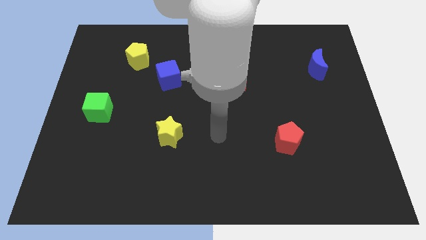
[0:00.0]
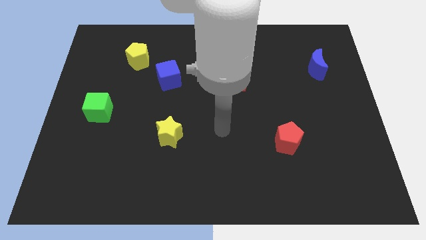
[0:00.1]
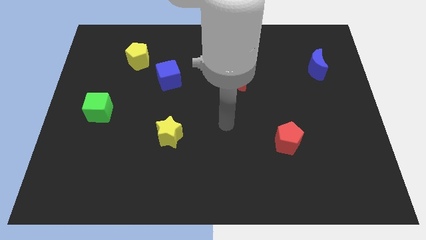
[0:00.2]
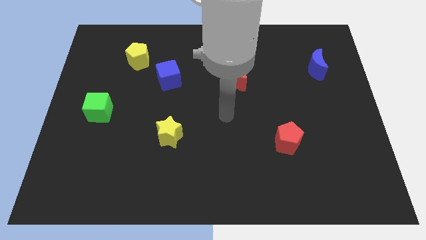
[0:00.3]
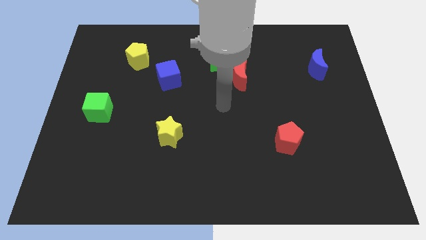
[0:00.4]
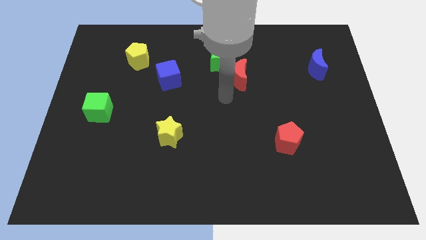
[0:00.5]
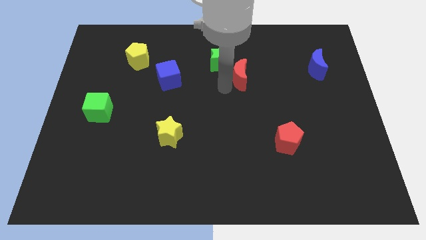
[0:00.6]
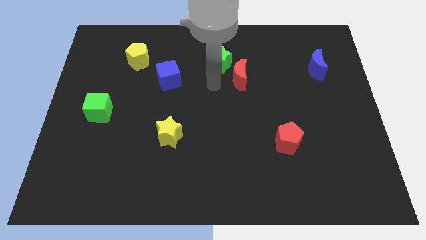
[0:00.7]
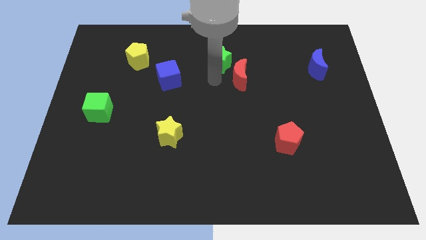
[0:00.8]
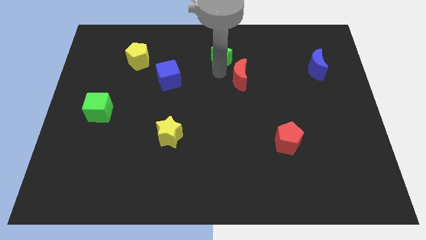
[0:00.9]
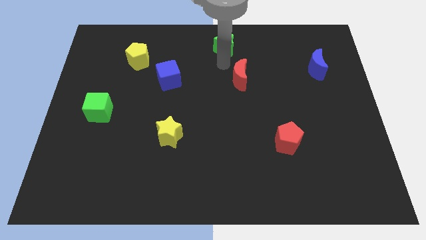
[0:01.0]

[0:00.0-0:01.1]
separate the red moon from the green star

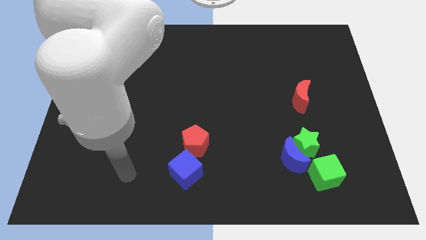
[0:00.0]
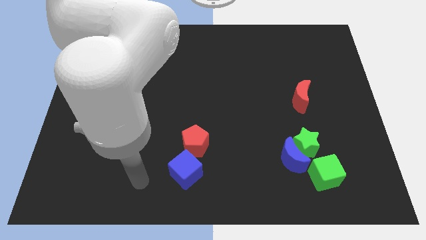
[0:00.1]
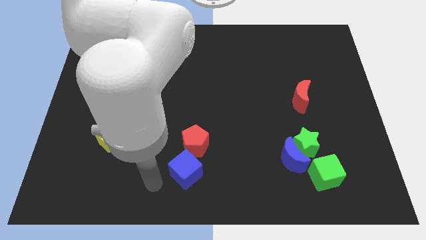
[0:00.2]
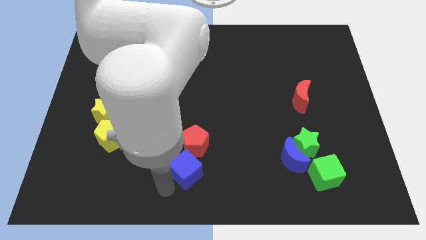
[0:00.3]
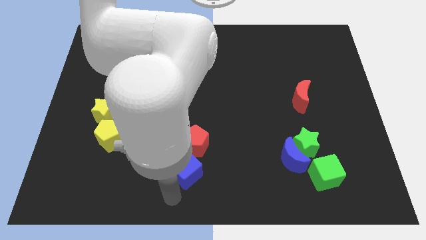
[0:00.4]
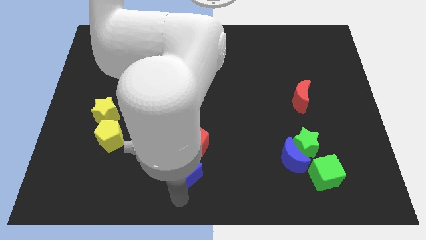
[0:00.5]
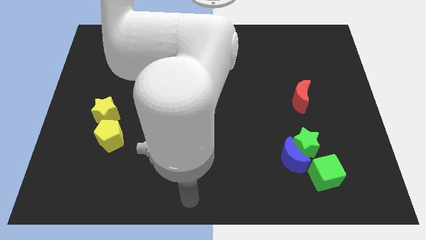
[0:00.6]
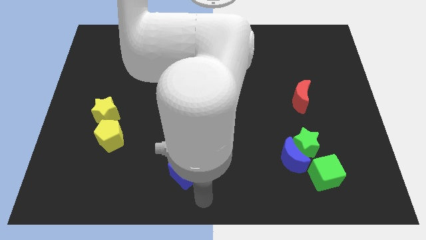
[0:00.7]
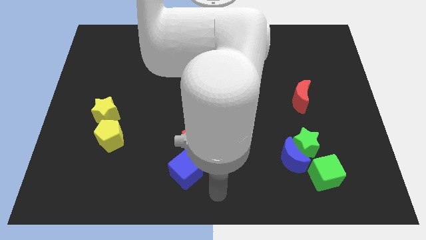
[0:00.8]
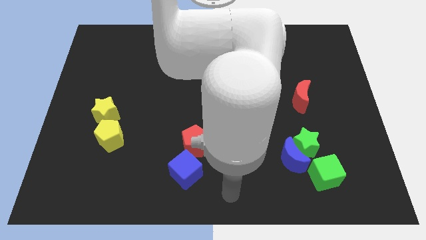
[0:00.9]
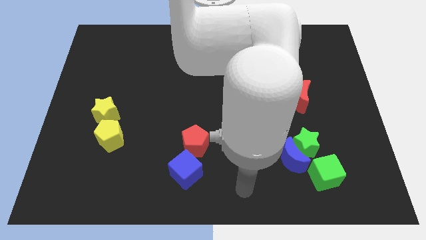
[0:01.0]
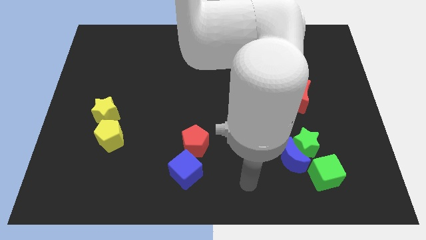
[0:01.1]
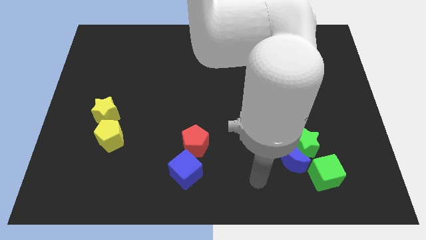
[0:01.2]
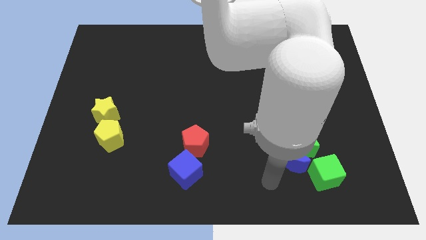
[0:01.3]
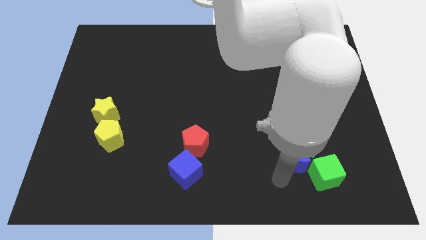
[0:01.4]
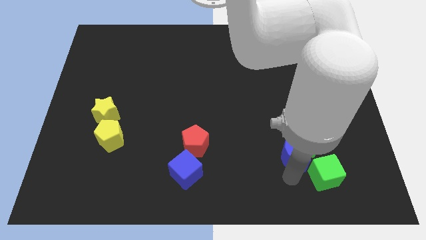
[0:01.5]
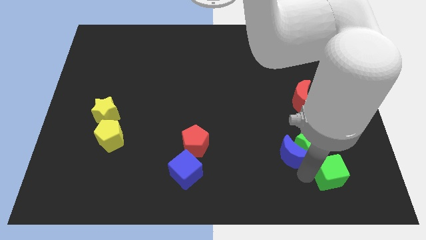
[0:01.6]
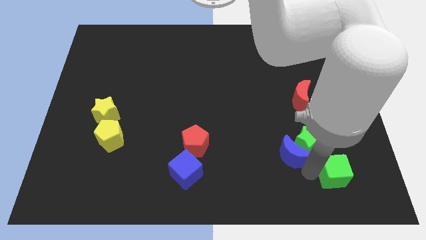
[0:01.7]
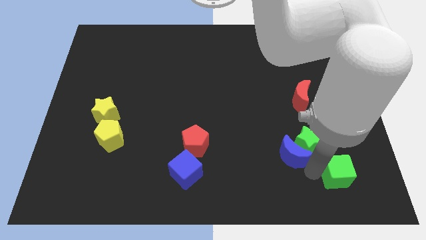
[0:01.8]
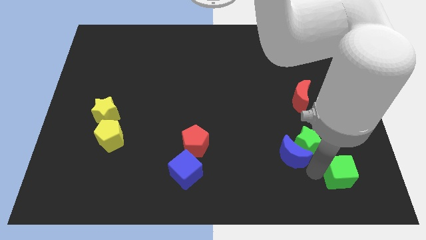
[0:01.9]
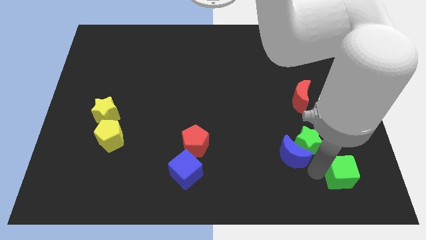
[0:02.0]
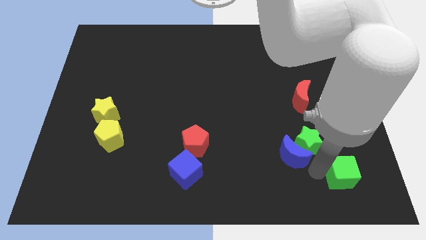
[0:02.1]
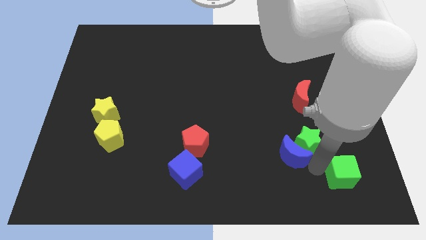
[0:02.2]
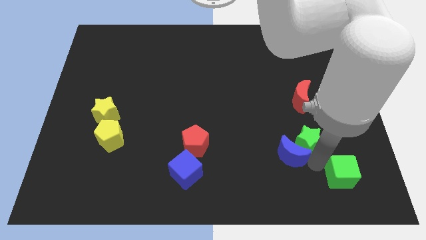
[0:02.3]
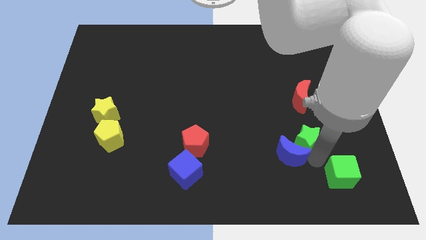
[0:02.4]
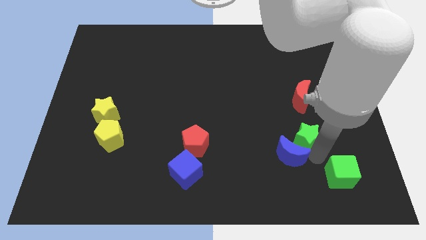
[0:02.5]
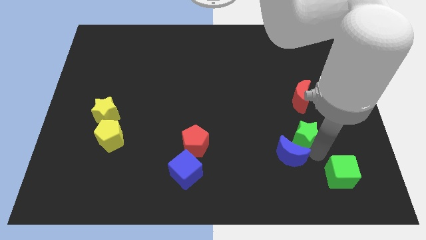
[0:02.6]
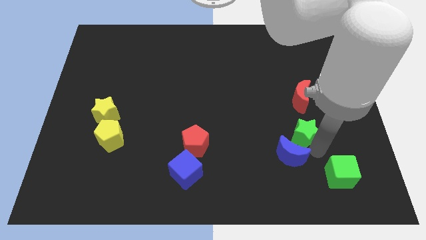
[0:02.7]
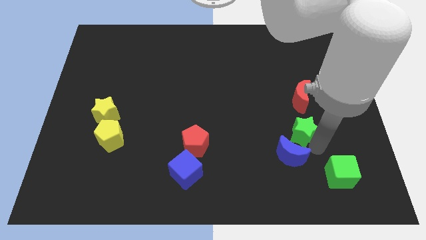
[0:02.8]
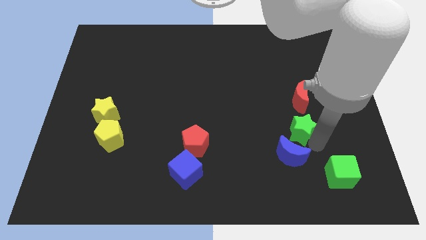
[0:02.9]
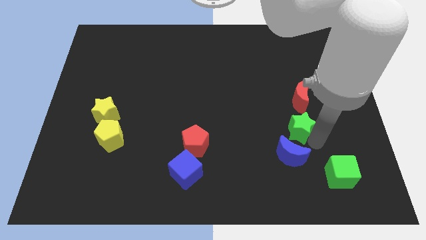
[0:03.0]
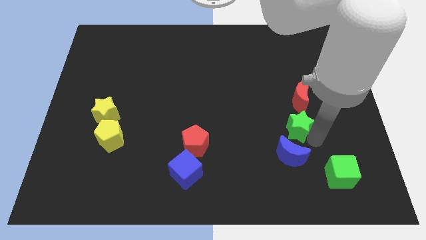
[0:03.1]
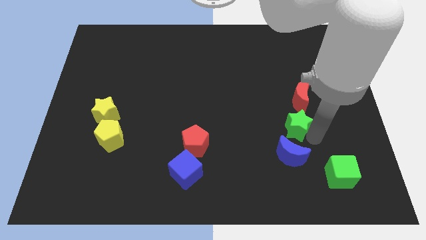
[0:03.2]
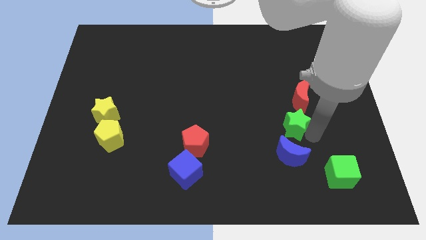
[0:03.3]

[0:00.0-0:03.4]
separate the green star from the blue moon and green cube

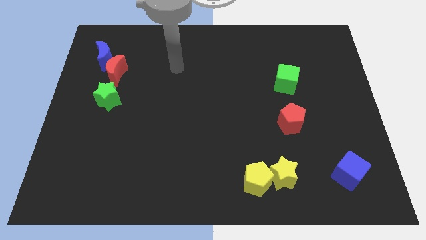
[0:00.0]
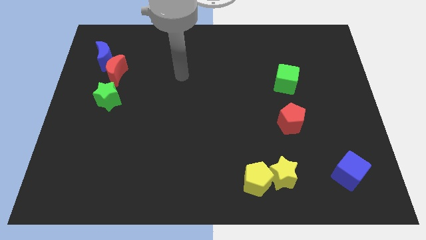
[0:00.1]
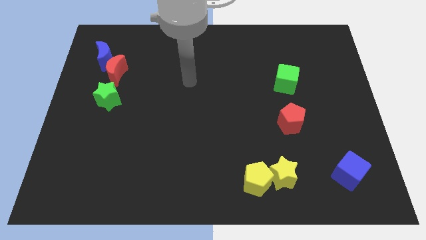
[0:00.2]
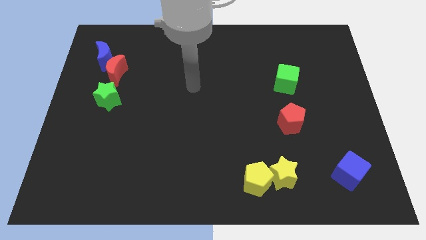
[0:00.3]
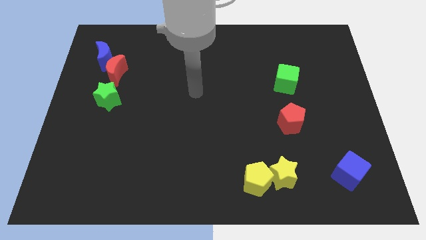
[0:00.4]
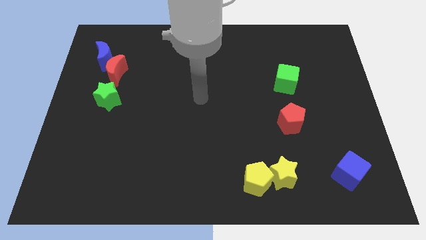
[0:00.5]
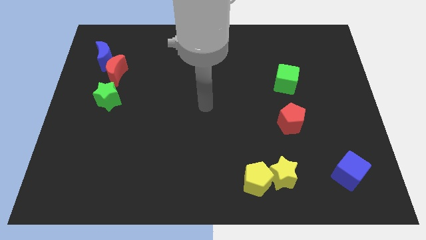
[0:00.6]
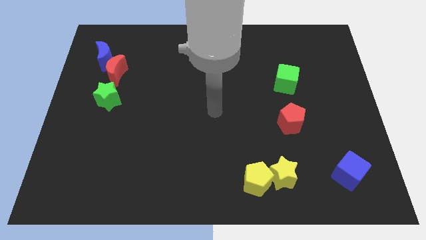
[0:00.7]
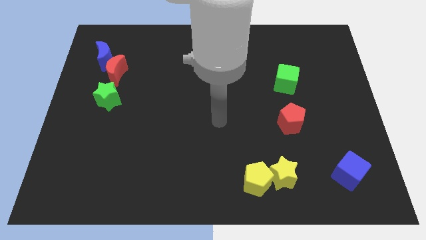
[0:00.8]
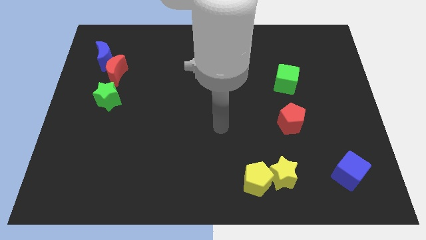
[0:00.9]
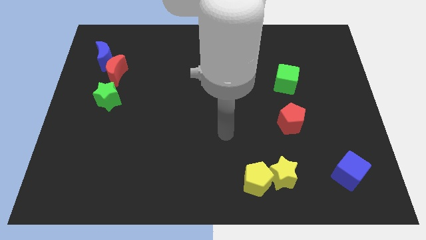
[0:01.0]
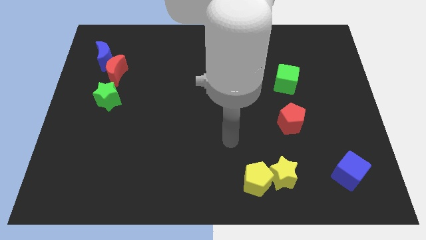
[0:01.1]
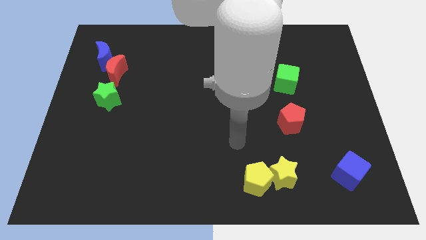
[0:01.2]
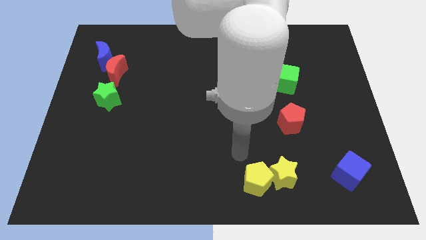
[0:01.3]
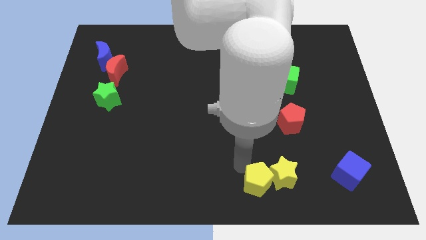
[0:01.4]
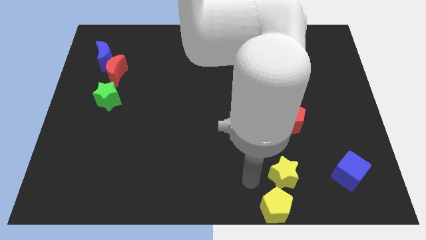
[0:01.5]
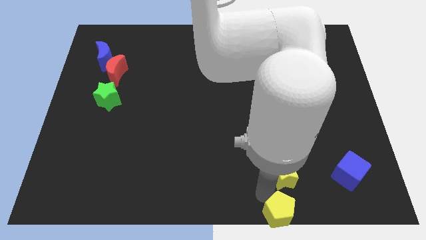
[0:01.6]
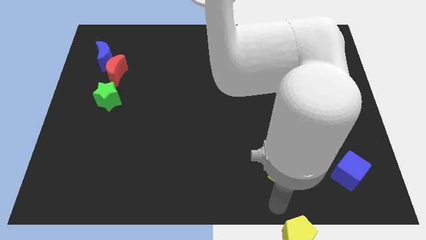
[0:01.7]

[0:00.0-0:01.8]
move the yellow star away from the yellow pentagon

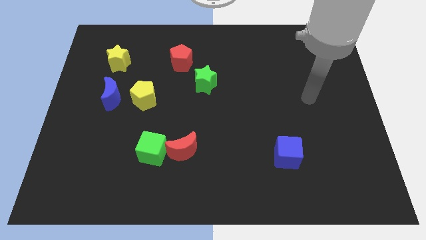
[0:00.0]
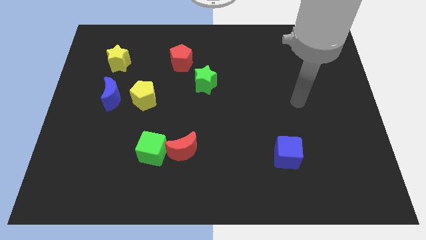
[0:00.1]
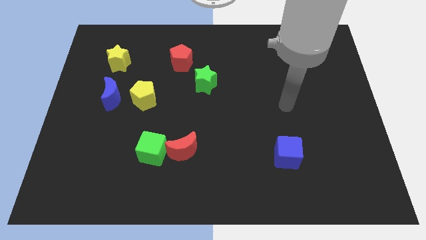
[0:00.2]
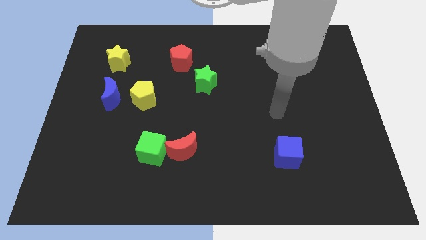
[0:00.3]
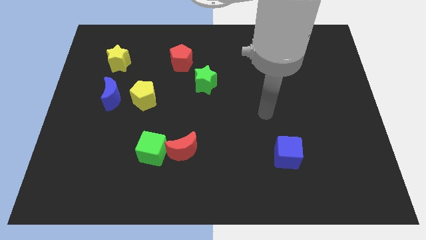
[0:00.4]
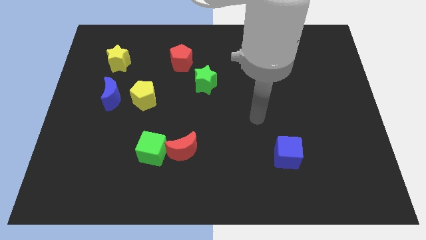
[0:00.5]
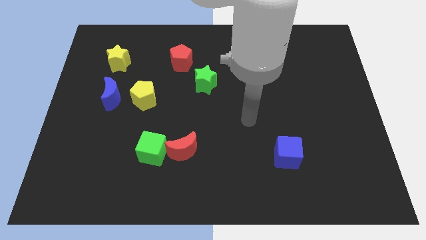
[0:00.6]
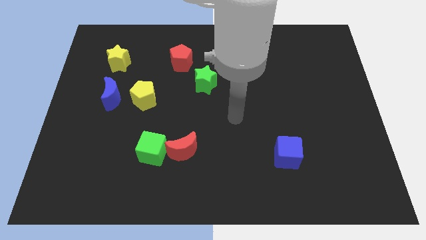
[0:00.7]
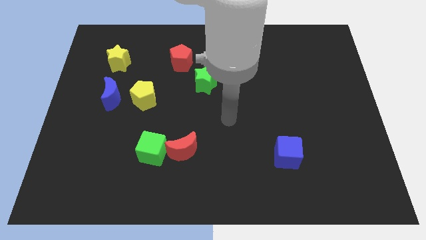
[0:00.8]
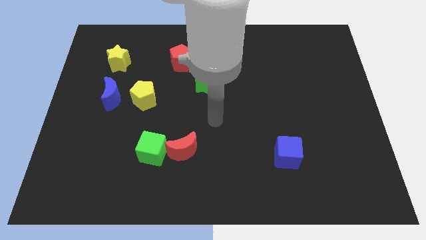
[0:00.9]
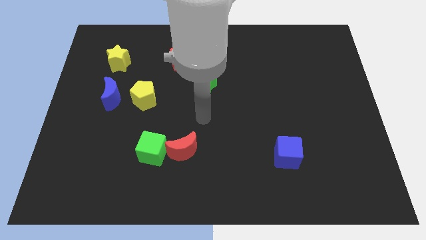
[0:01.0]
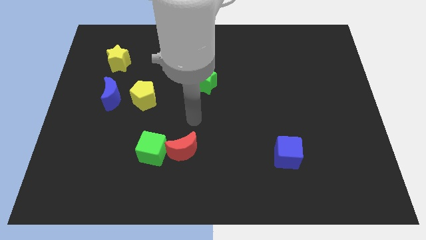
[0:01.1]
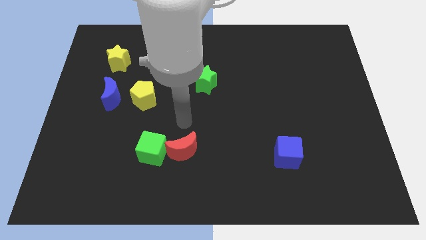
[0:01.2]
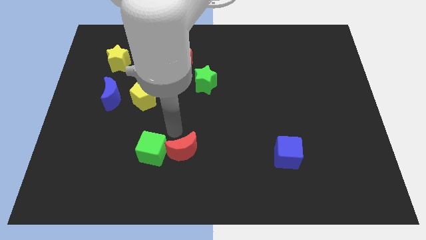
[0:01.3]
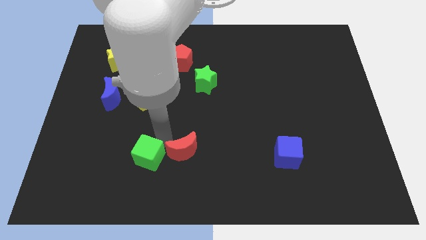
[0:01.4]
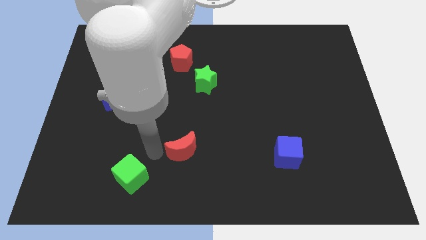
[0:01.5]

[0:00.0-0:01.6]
separate the red moon from the green cube

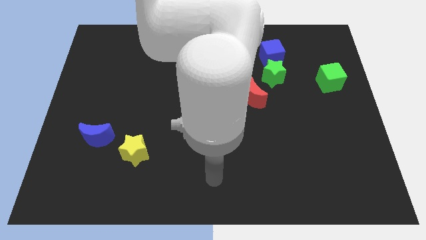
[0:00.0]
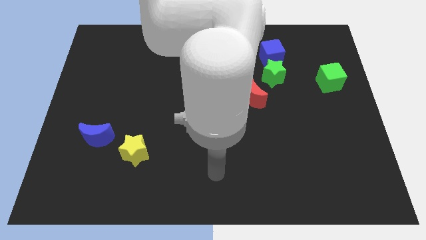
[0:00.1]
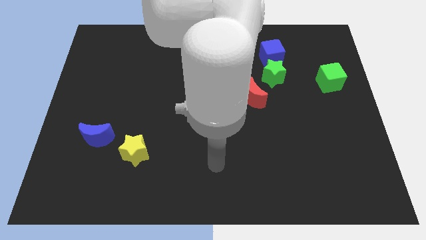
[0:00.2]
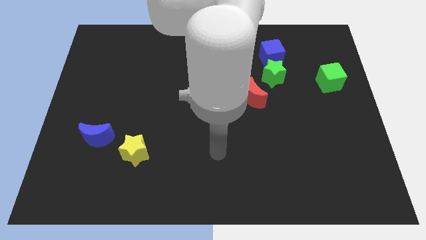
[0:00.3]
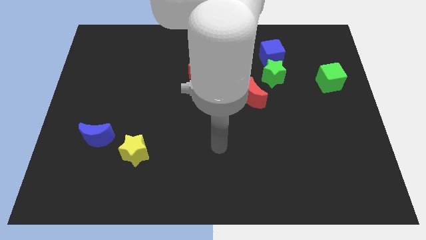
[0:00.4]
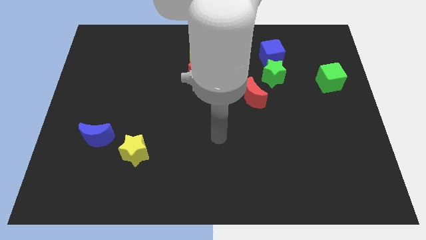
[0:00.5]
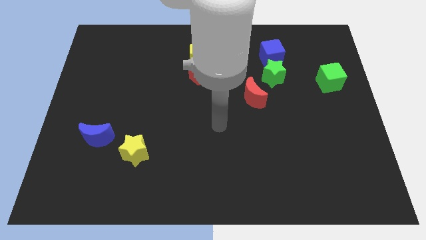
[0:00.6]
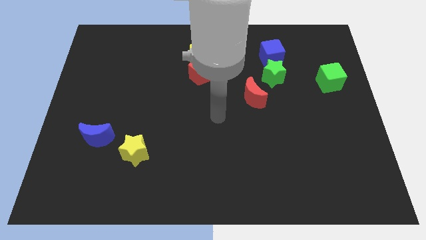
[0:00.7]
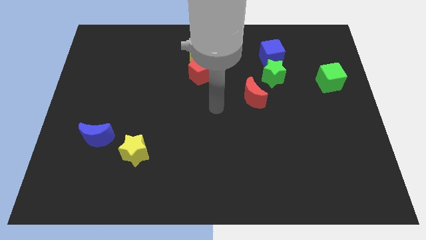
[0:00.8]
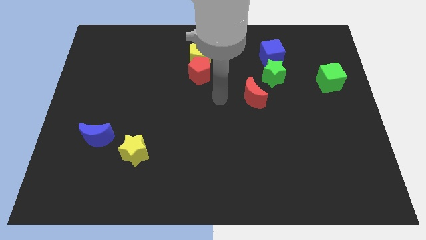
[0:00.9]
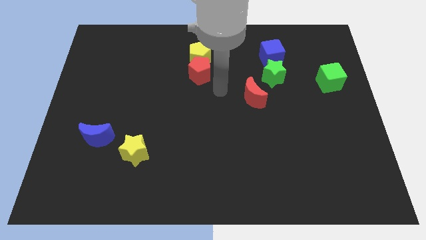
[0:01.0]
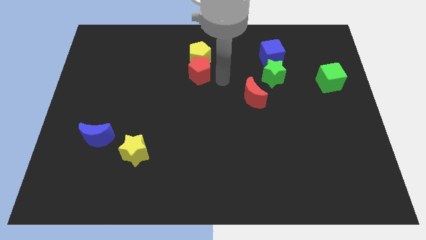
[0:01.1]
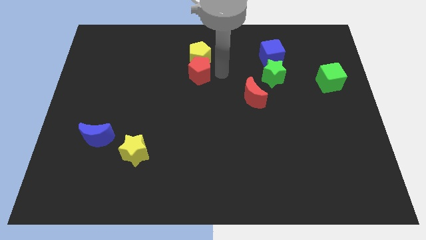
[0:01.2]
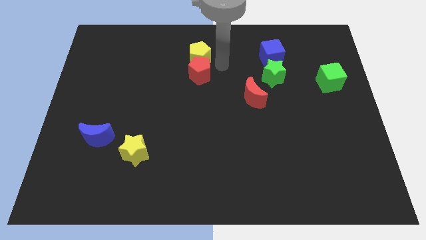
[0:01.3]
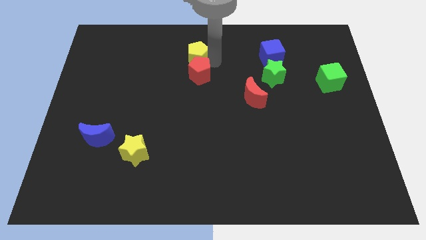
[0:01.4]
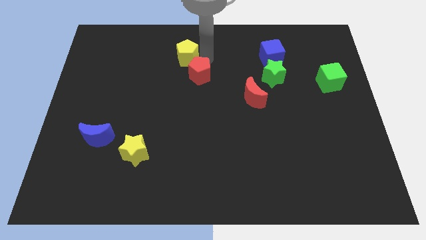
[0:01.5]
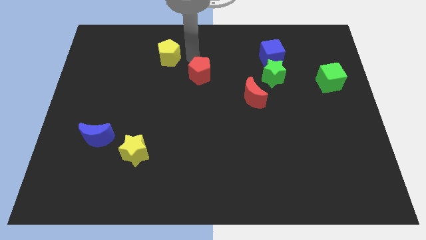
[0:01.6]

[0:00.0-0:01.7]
pull the red pentagon apart from the yellow pentagon
